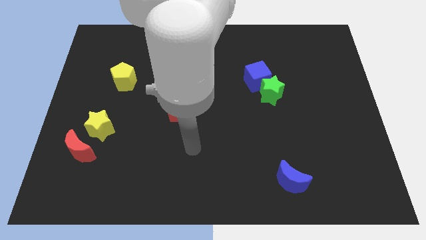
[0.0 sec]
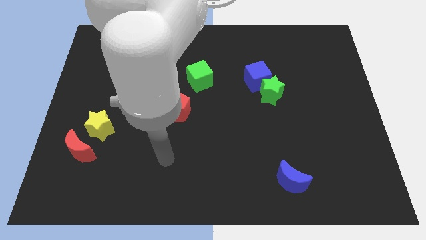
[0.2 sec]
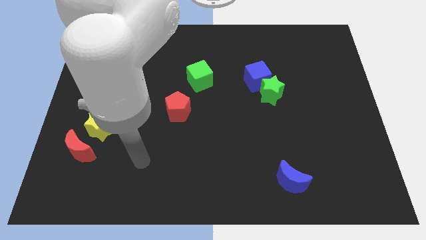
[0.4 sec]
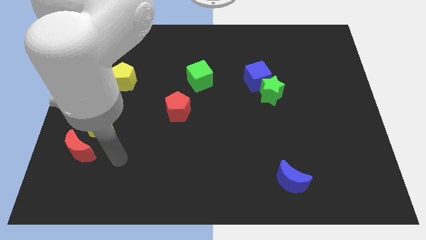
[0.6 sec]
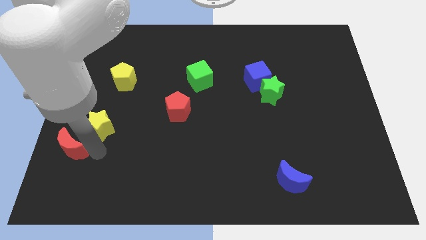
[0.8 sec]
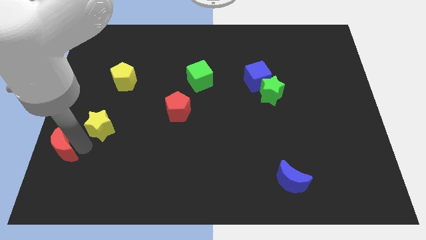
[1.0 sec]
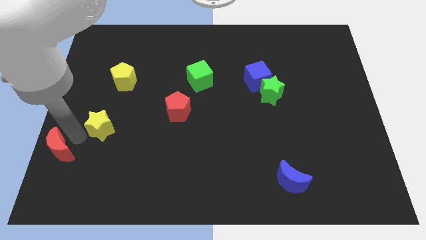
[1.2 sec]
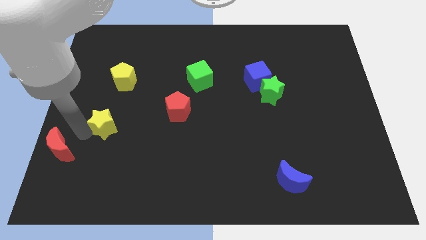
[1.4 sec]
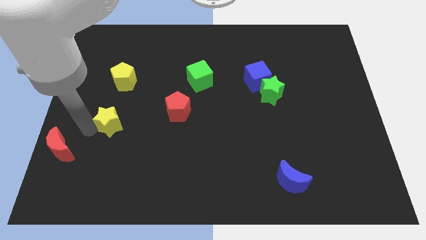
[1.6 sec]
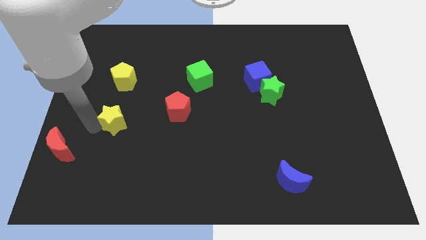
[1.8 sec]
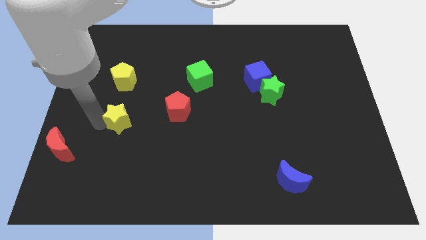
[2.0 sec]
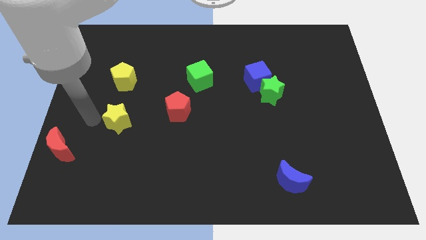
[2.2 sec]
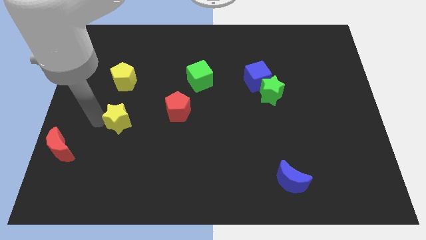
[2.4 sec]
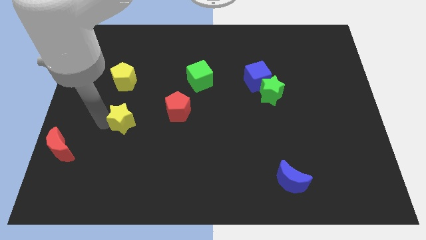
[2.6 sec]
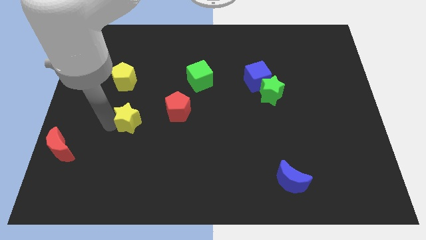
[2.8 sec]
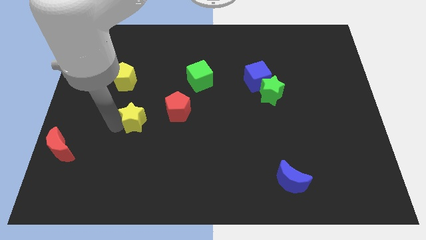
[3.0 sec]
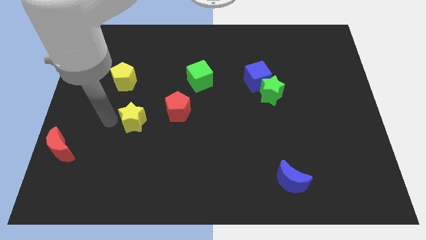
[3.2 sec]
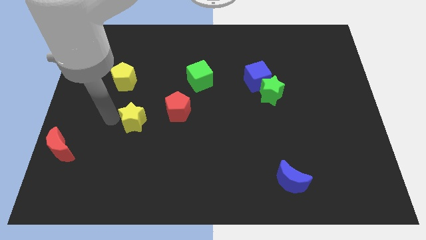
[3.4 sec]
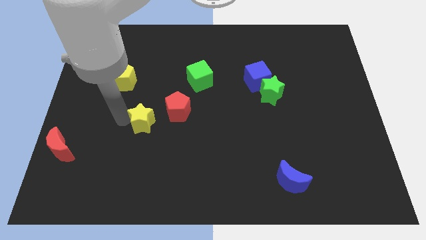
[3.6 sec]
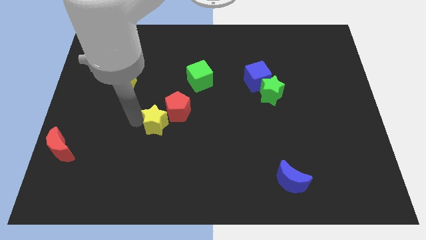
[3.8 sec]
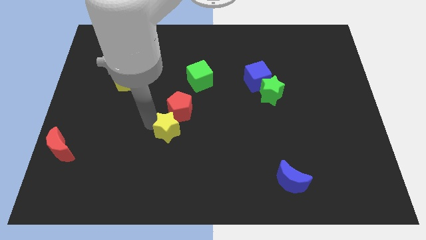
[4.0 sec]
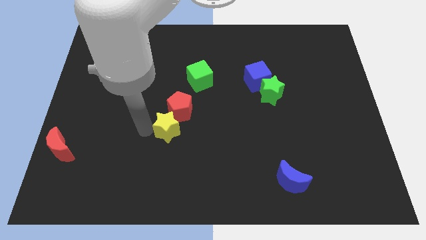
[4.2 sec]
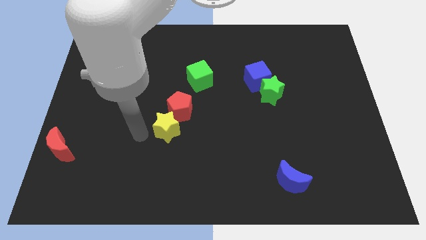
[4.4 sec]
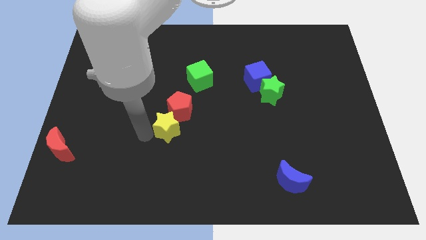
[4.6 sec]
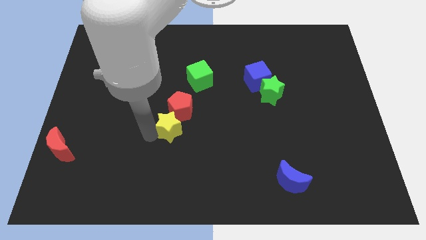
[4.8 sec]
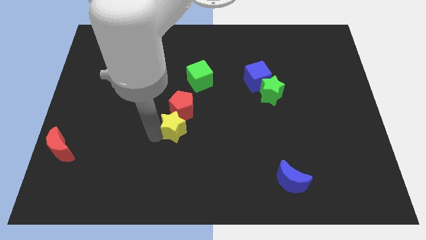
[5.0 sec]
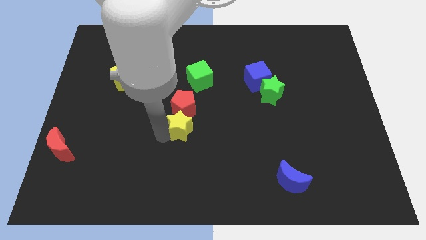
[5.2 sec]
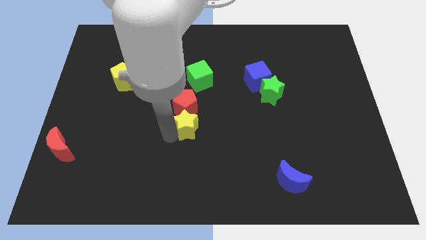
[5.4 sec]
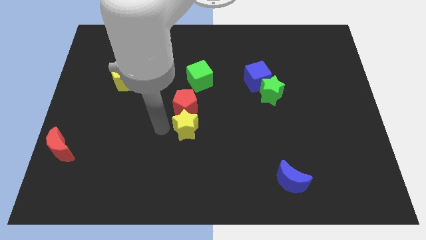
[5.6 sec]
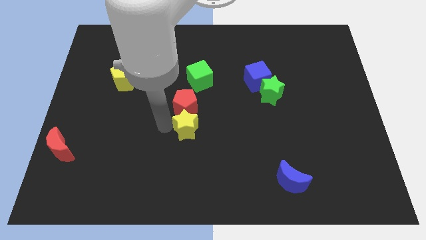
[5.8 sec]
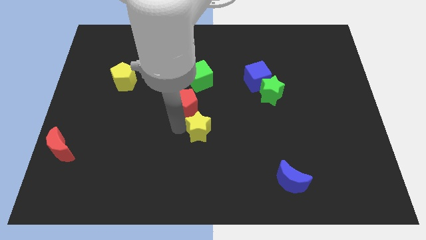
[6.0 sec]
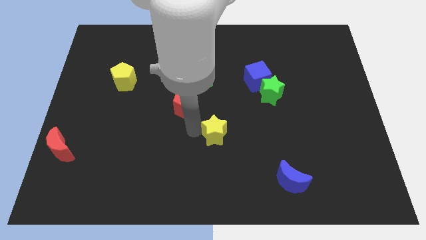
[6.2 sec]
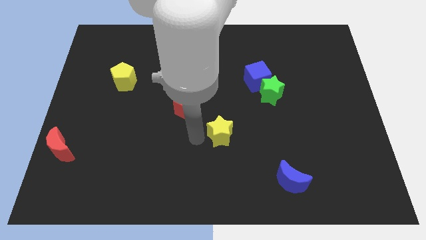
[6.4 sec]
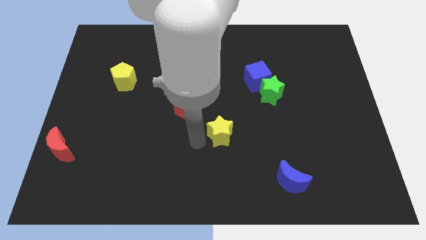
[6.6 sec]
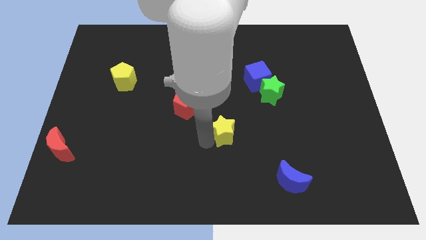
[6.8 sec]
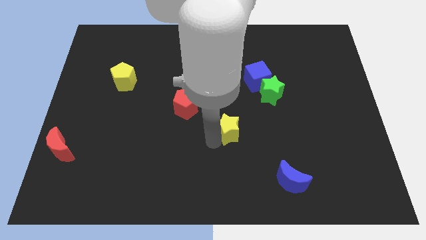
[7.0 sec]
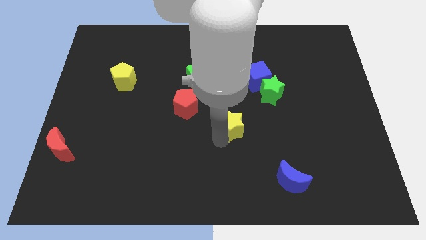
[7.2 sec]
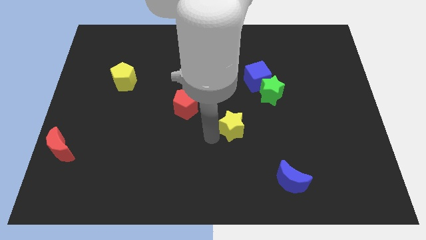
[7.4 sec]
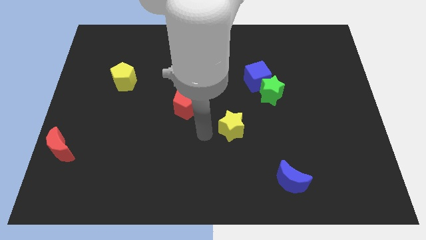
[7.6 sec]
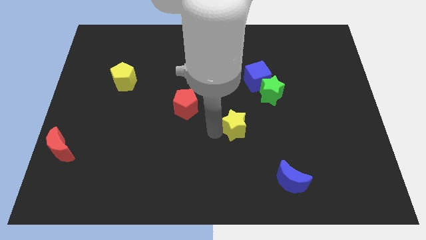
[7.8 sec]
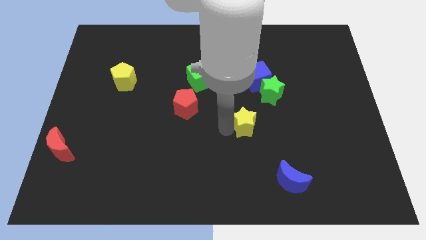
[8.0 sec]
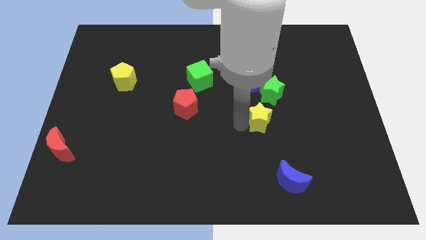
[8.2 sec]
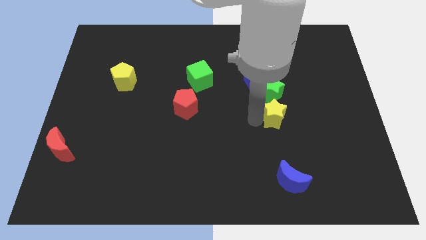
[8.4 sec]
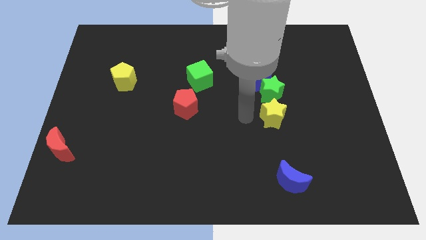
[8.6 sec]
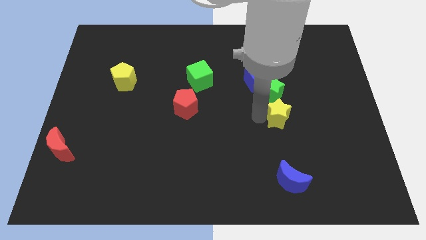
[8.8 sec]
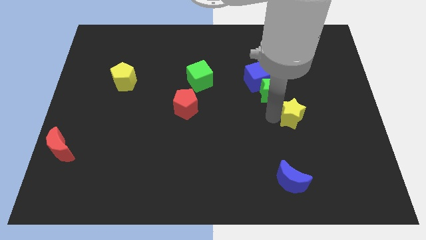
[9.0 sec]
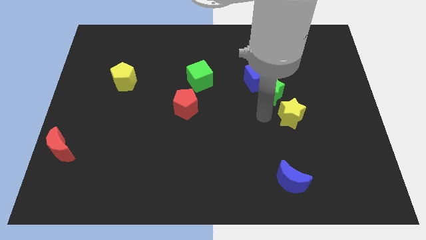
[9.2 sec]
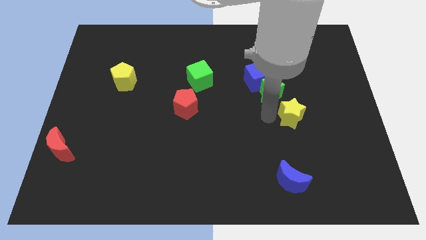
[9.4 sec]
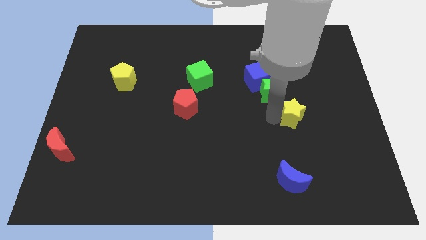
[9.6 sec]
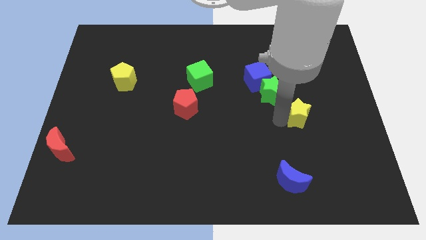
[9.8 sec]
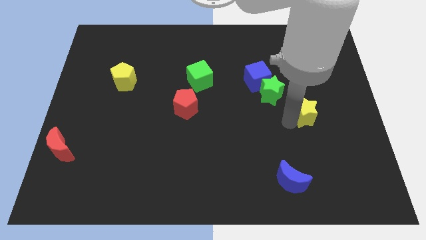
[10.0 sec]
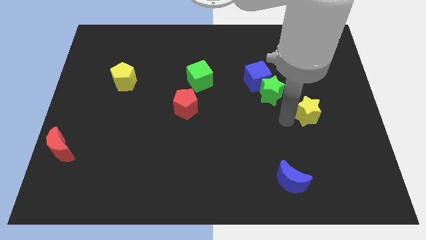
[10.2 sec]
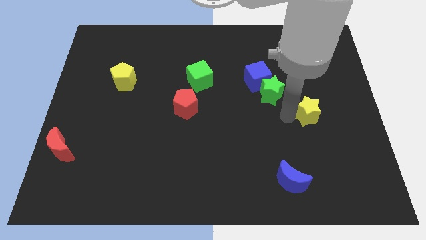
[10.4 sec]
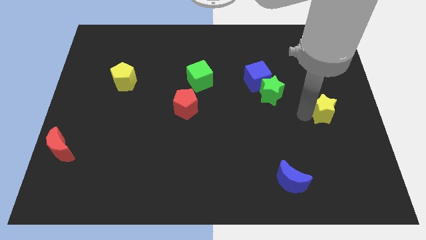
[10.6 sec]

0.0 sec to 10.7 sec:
push the yellow star to the center right

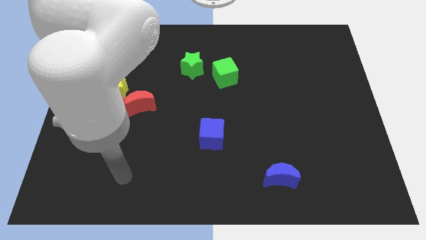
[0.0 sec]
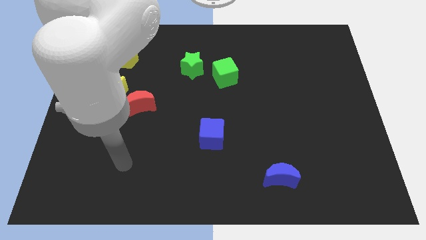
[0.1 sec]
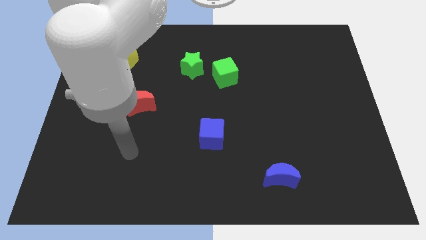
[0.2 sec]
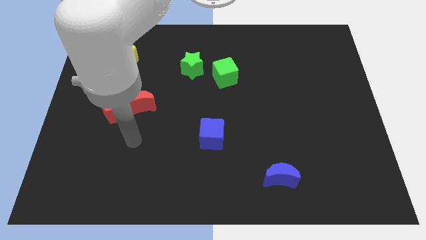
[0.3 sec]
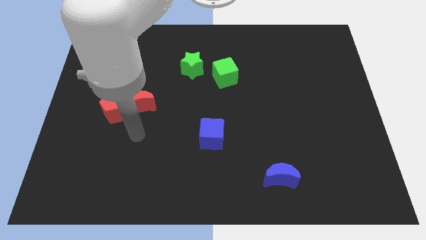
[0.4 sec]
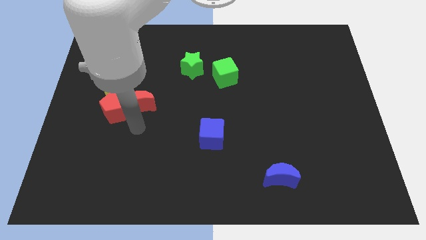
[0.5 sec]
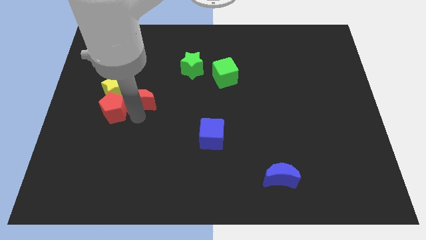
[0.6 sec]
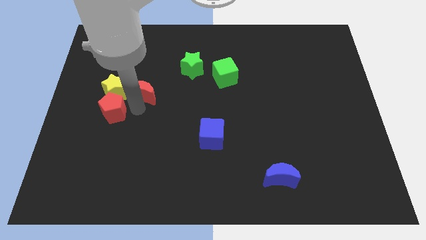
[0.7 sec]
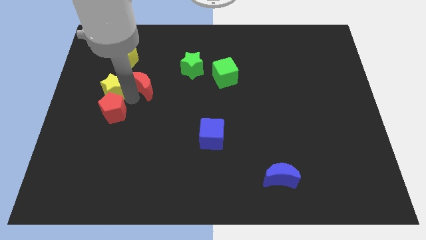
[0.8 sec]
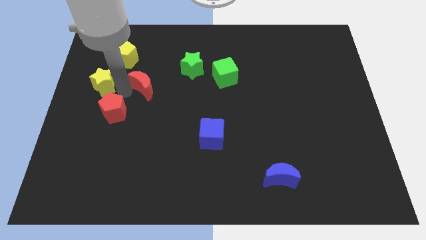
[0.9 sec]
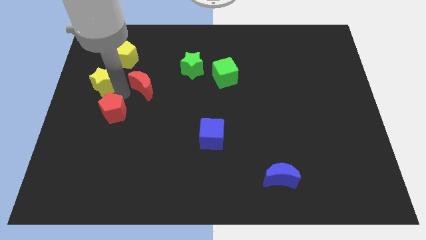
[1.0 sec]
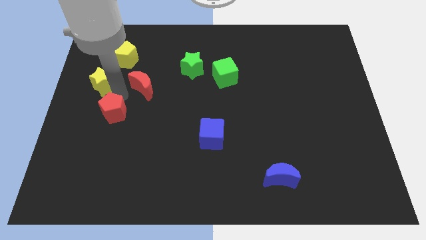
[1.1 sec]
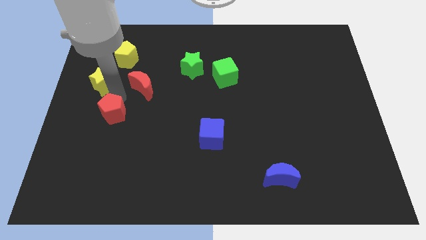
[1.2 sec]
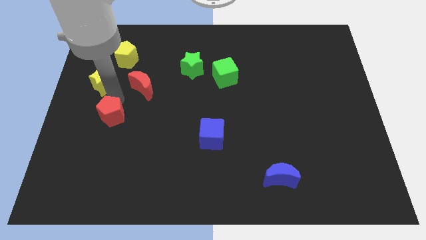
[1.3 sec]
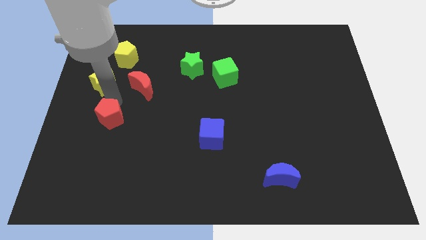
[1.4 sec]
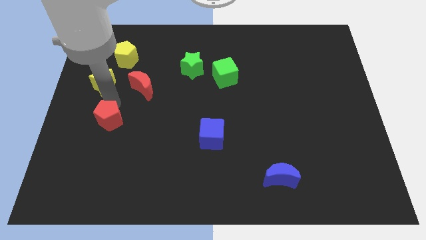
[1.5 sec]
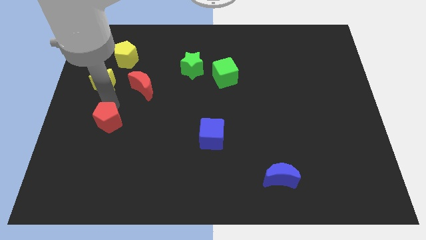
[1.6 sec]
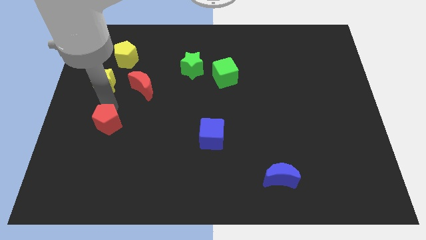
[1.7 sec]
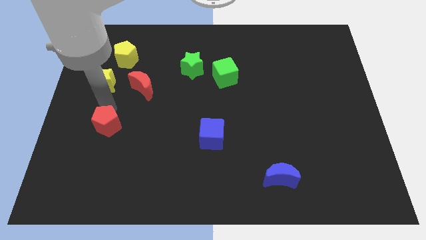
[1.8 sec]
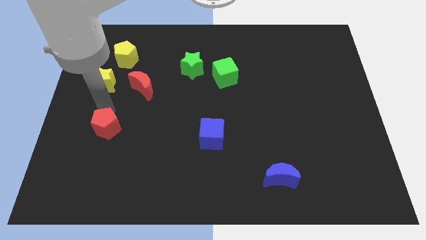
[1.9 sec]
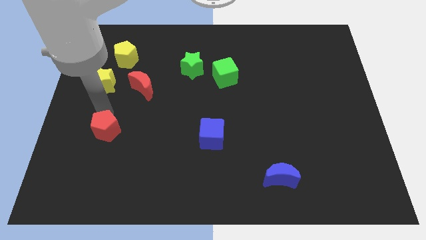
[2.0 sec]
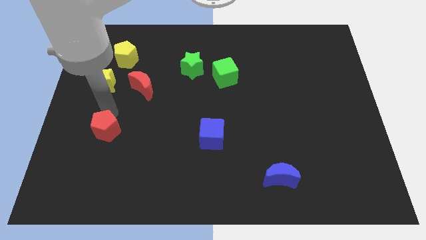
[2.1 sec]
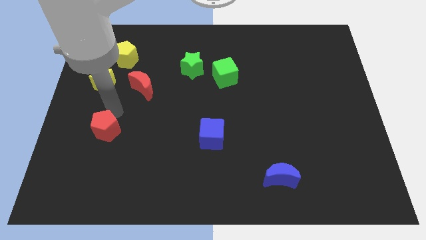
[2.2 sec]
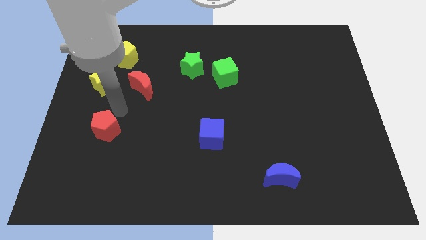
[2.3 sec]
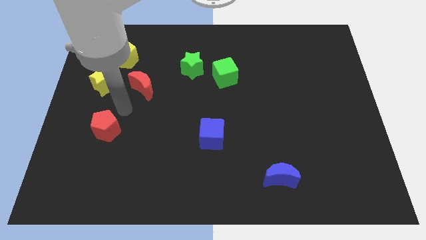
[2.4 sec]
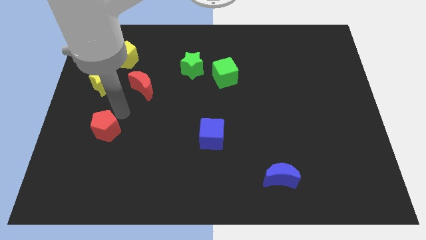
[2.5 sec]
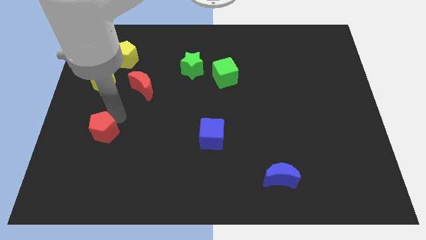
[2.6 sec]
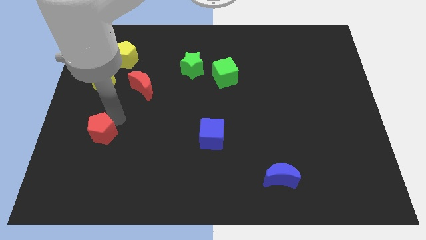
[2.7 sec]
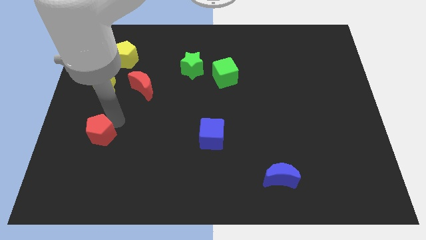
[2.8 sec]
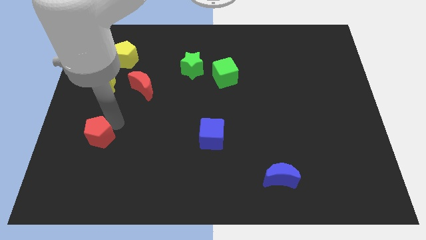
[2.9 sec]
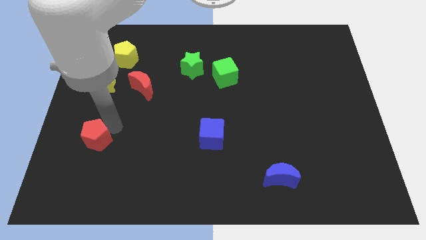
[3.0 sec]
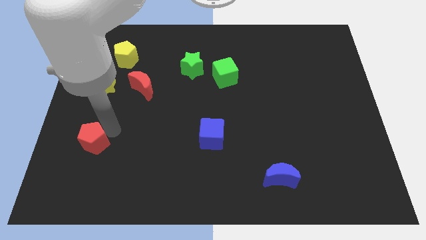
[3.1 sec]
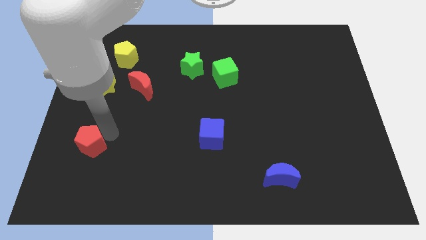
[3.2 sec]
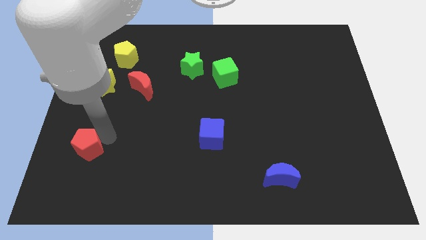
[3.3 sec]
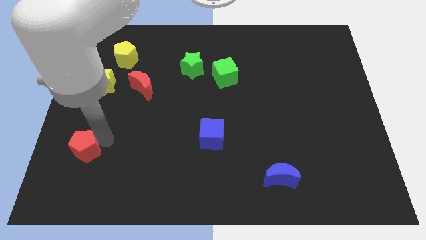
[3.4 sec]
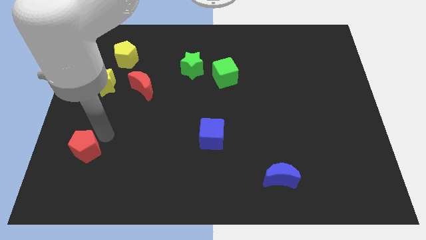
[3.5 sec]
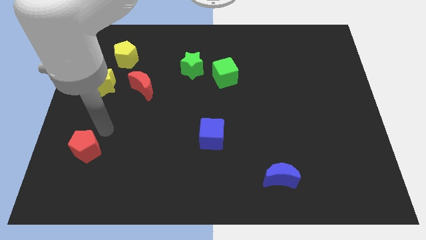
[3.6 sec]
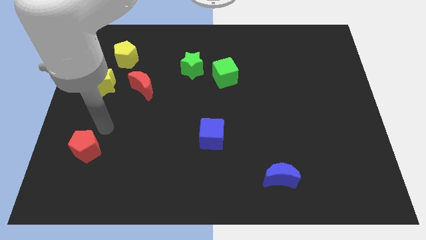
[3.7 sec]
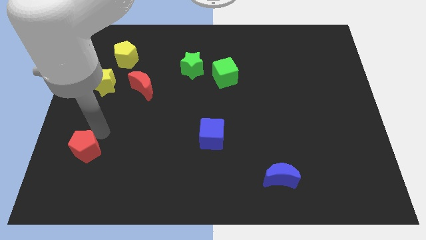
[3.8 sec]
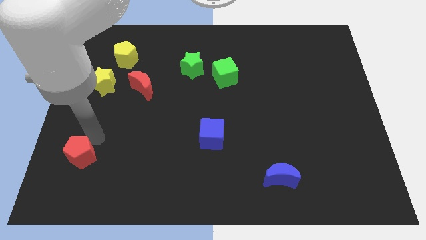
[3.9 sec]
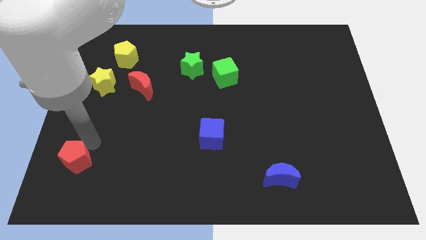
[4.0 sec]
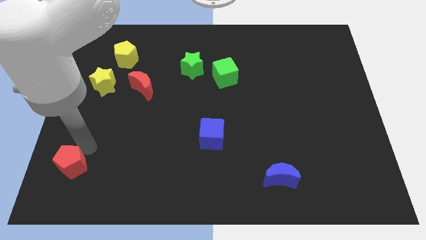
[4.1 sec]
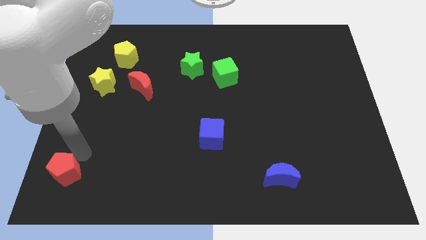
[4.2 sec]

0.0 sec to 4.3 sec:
put the red pentagon to the bottom left of the board
